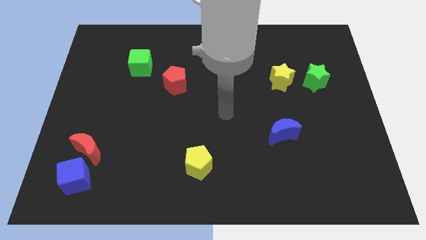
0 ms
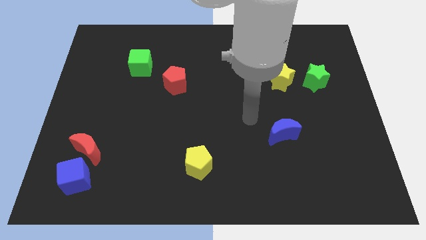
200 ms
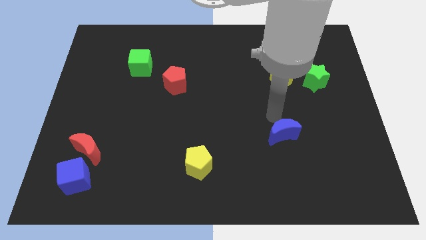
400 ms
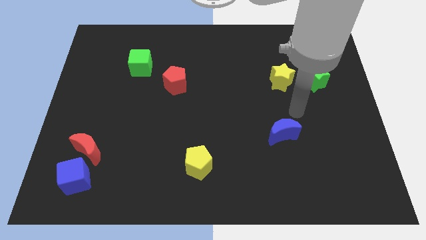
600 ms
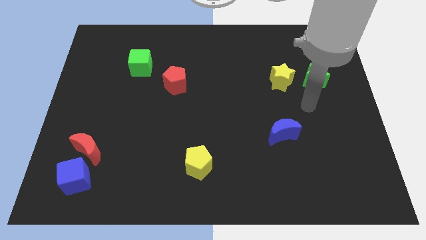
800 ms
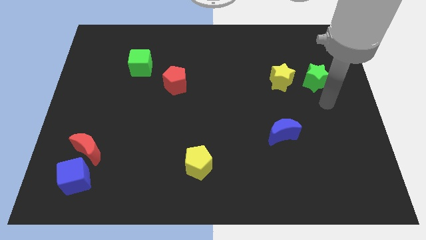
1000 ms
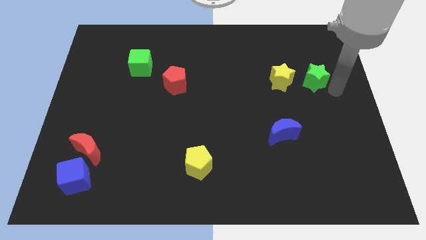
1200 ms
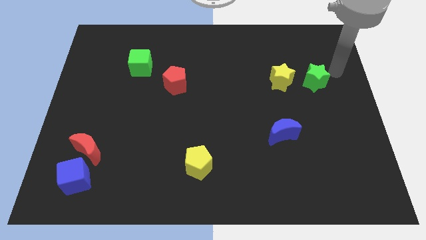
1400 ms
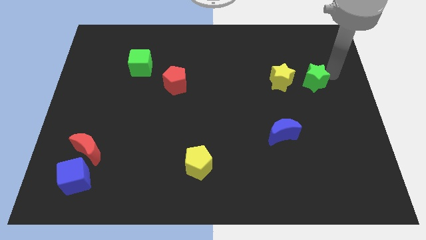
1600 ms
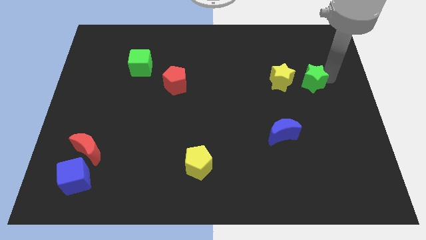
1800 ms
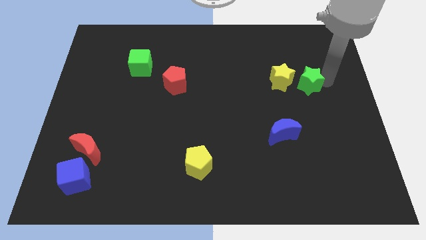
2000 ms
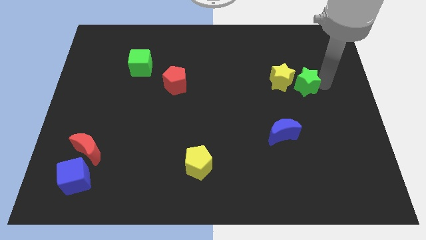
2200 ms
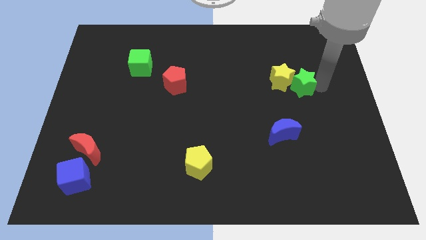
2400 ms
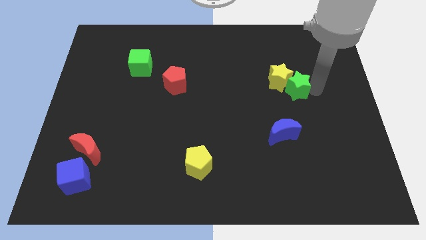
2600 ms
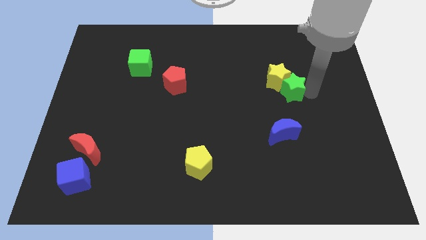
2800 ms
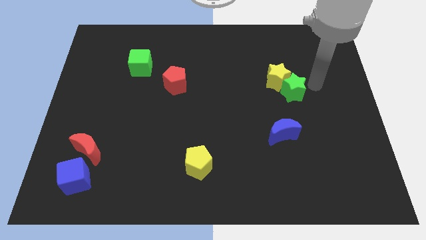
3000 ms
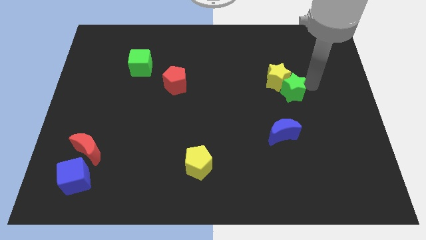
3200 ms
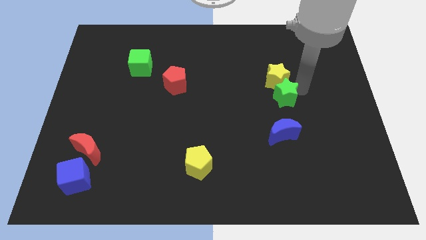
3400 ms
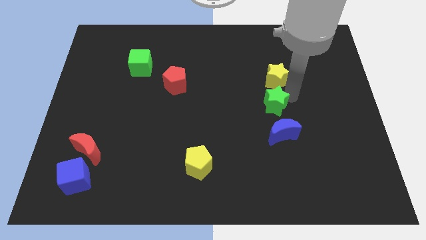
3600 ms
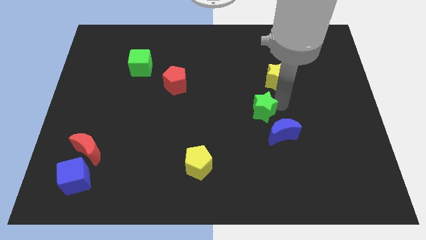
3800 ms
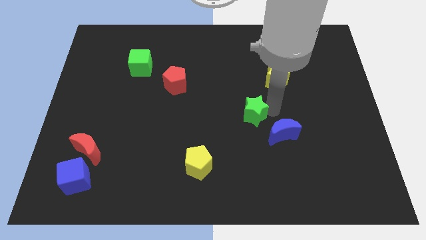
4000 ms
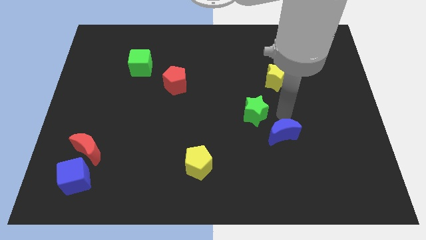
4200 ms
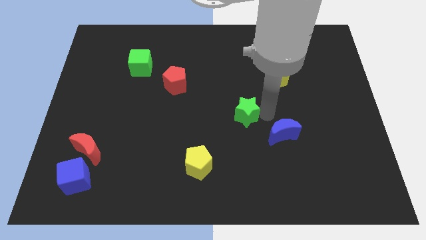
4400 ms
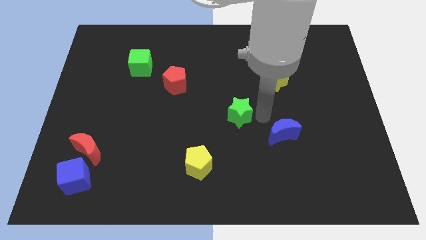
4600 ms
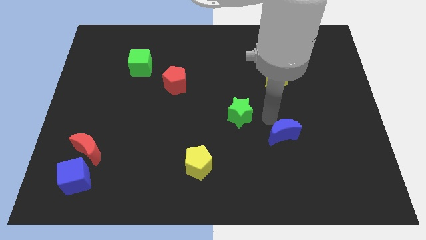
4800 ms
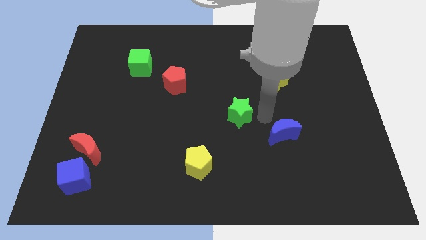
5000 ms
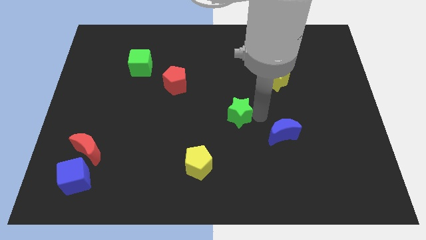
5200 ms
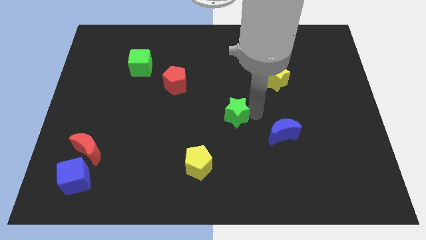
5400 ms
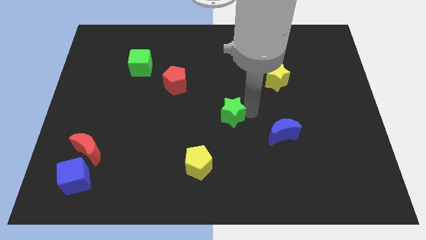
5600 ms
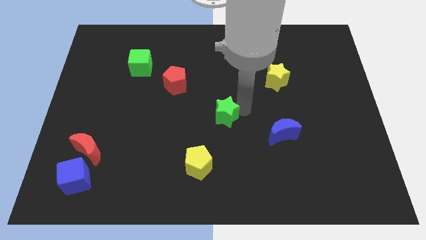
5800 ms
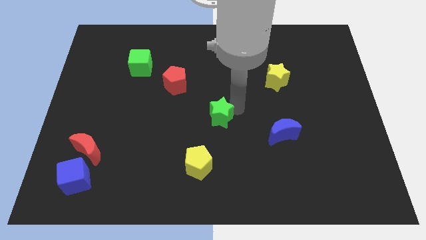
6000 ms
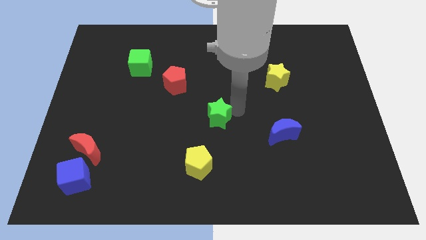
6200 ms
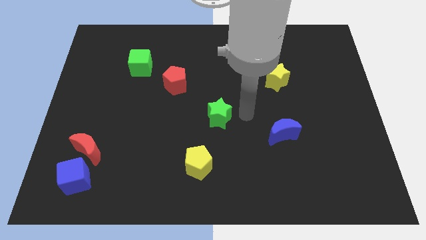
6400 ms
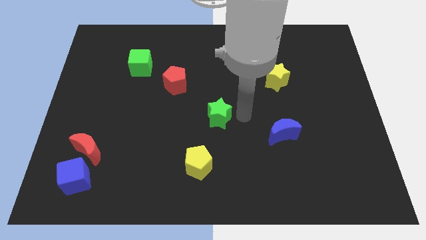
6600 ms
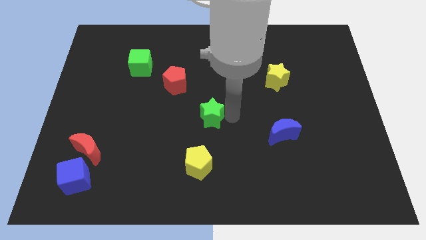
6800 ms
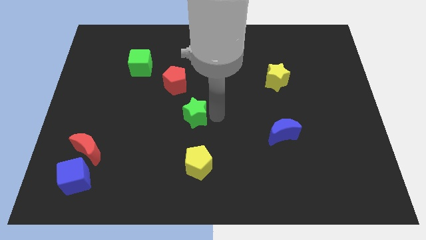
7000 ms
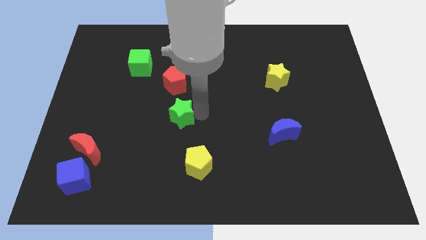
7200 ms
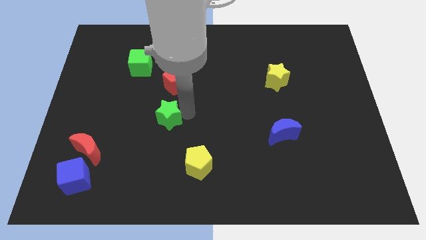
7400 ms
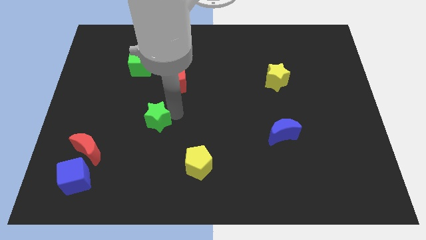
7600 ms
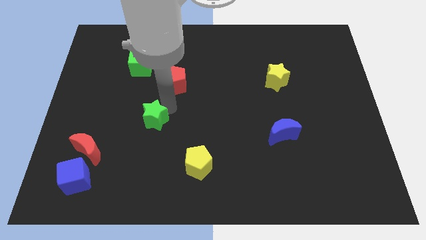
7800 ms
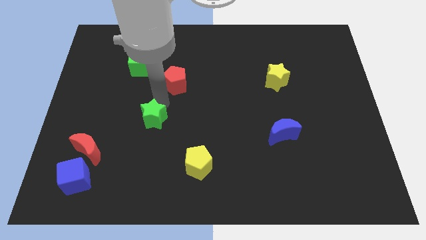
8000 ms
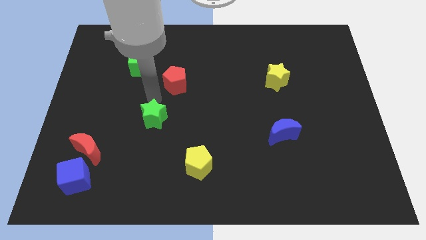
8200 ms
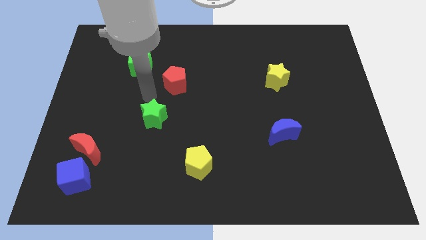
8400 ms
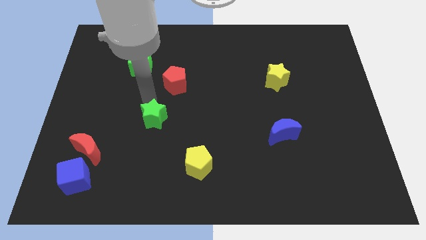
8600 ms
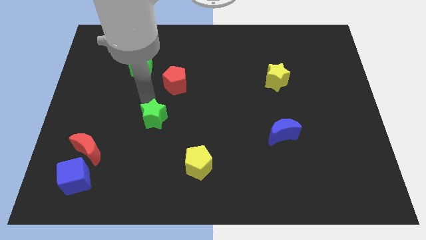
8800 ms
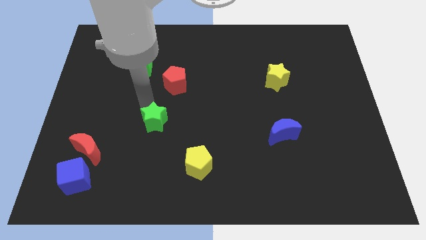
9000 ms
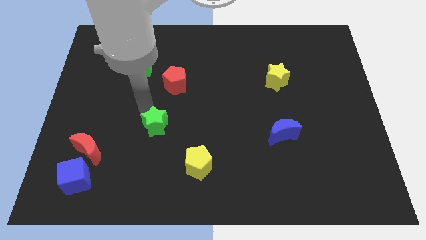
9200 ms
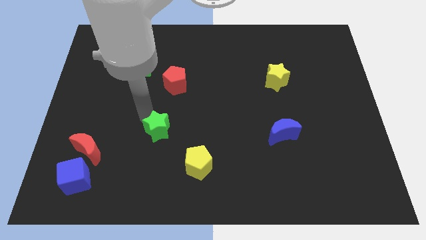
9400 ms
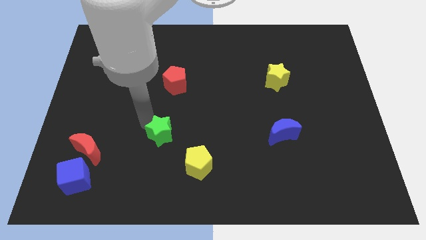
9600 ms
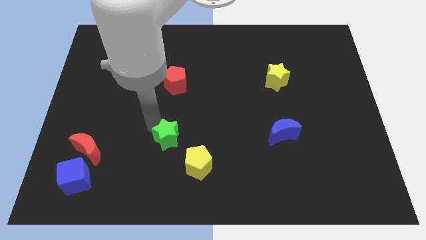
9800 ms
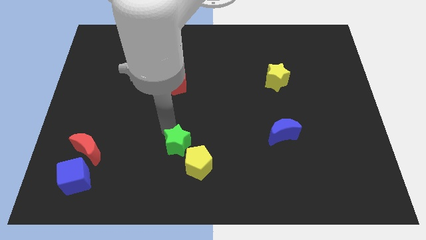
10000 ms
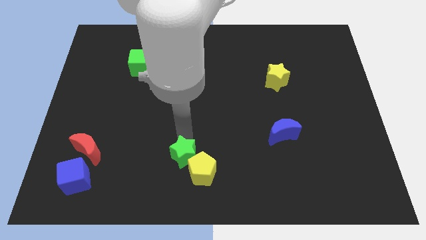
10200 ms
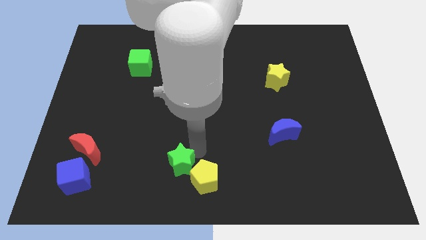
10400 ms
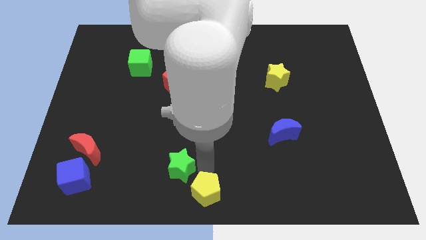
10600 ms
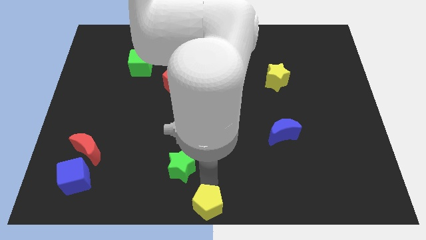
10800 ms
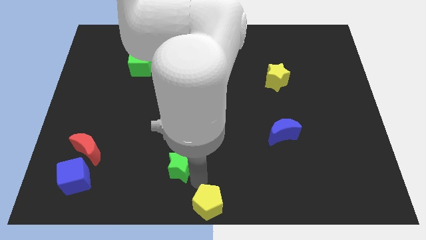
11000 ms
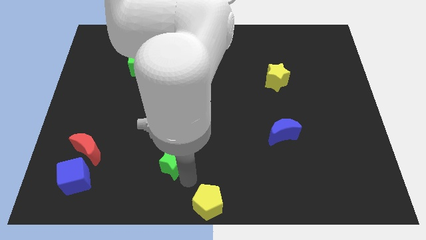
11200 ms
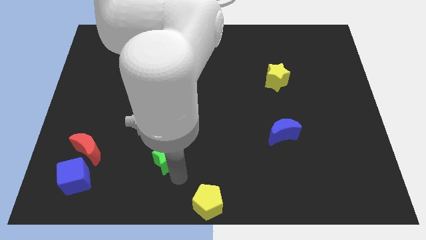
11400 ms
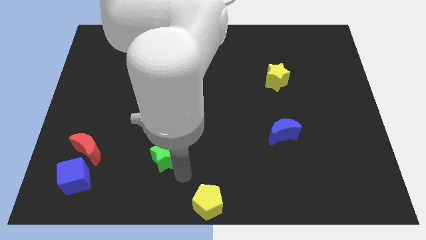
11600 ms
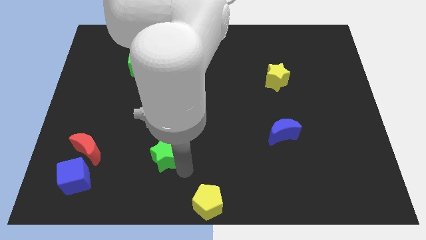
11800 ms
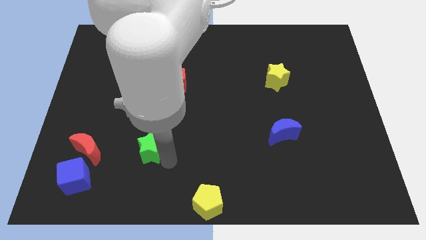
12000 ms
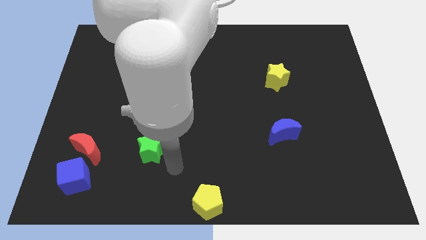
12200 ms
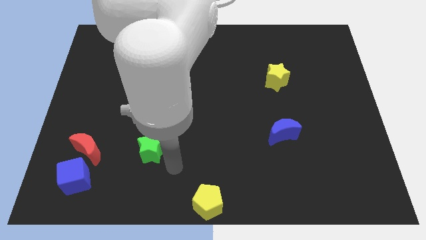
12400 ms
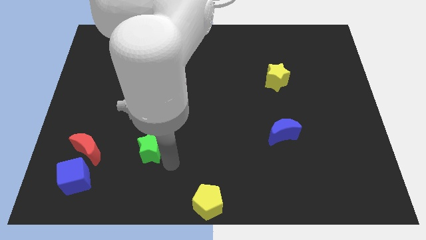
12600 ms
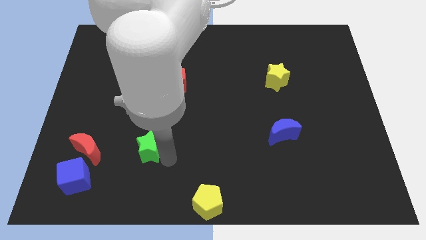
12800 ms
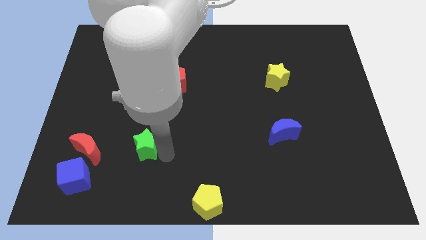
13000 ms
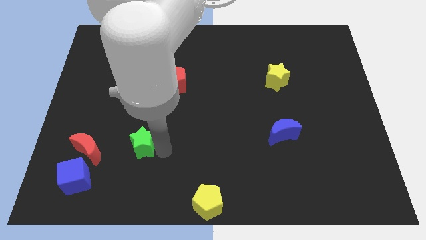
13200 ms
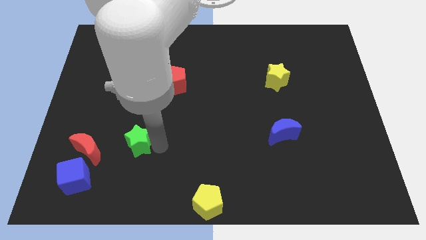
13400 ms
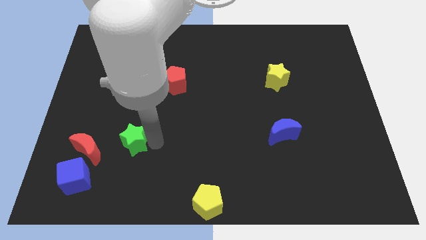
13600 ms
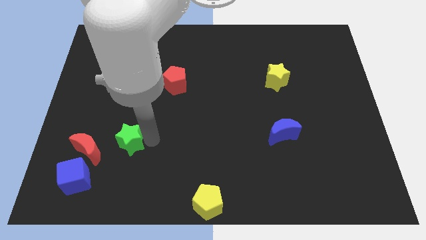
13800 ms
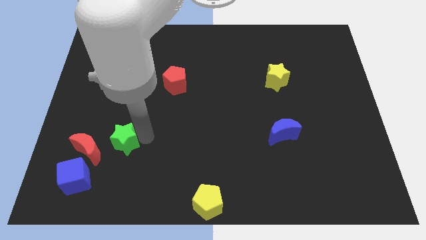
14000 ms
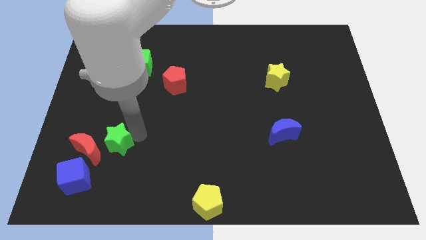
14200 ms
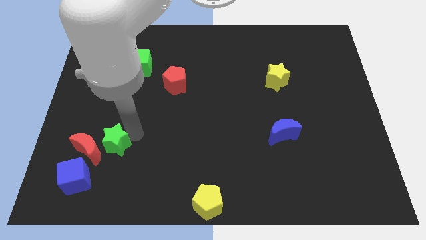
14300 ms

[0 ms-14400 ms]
slide the green star towards the red moon

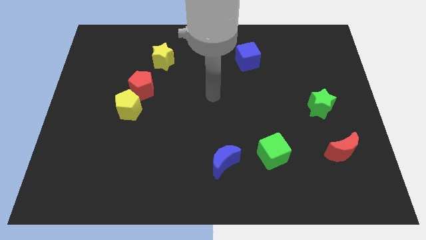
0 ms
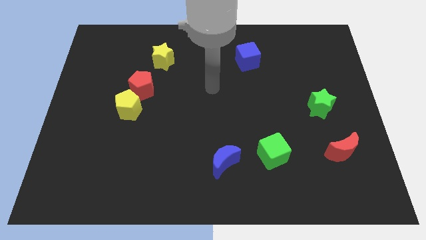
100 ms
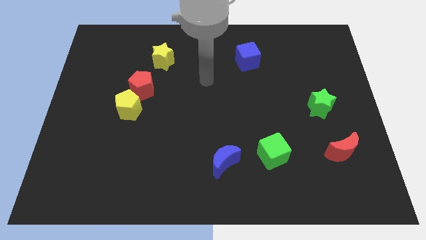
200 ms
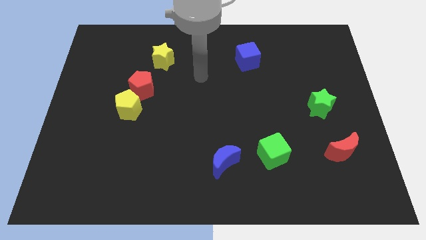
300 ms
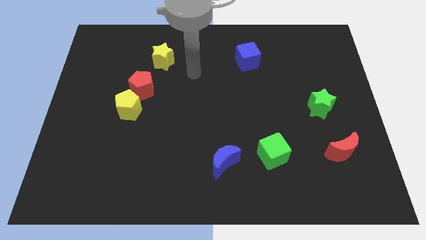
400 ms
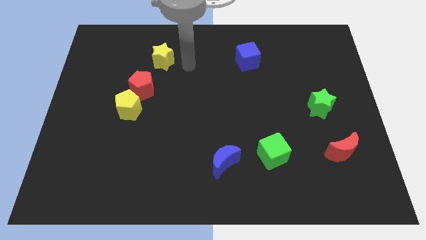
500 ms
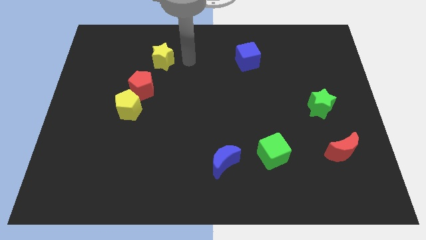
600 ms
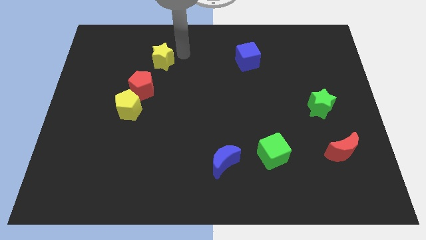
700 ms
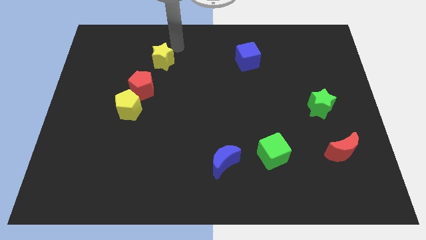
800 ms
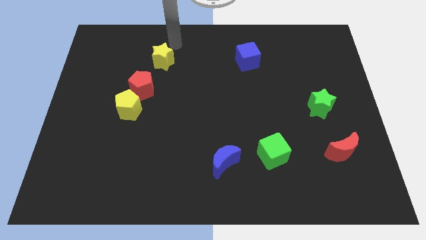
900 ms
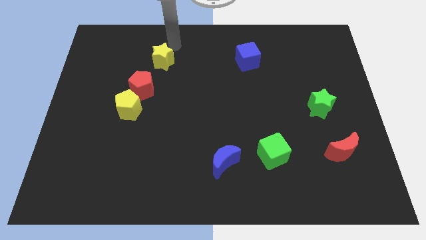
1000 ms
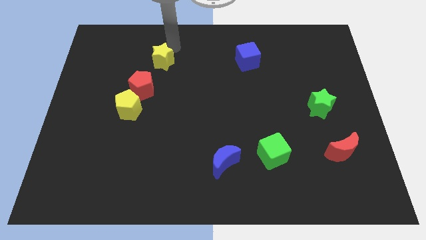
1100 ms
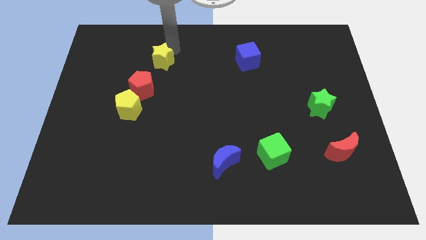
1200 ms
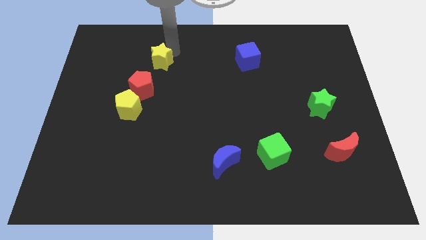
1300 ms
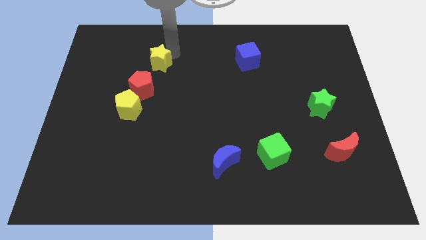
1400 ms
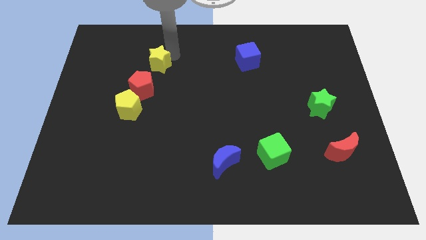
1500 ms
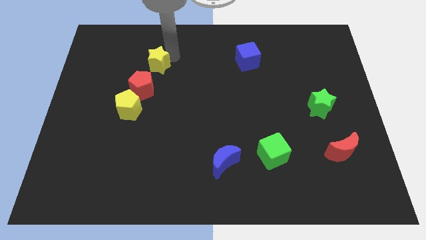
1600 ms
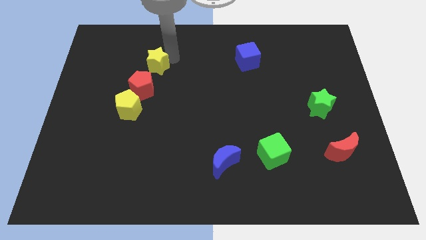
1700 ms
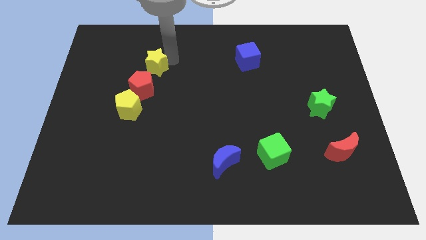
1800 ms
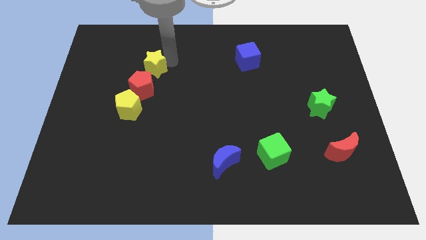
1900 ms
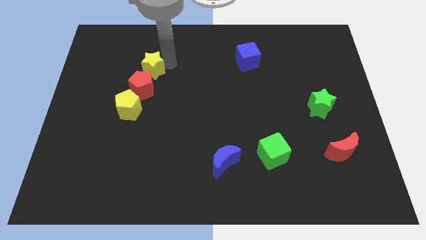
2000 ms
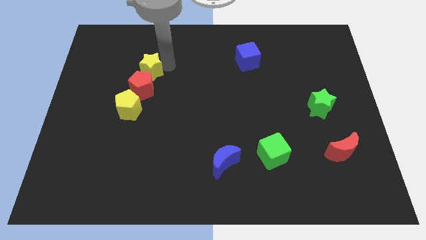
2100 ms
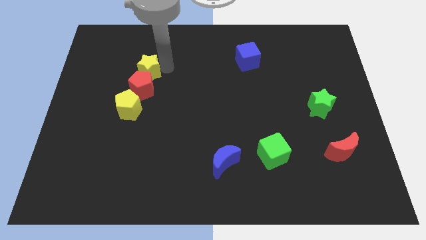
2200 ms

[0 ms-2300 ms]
slide the yellow star close to the red pentagon
